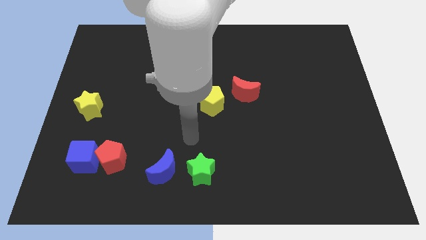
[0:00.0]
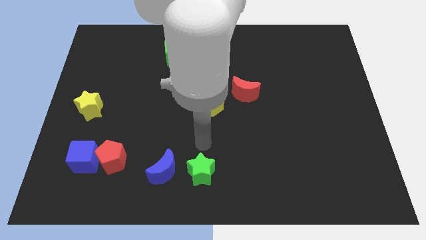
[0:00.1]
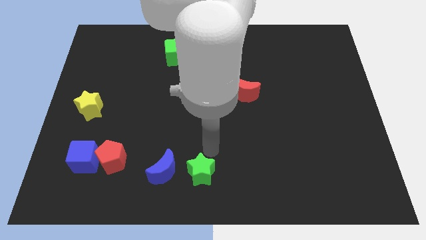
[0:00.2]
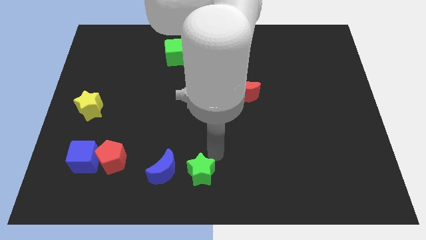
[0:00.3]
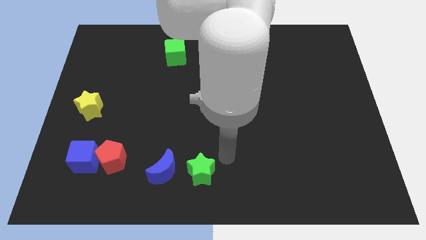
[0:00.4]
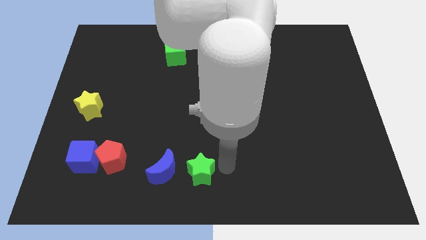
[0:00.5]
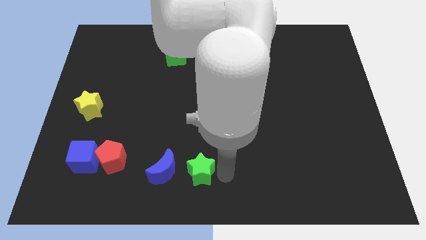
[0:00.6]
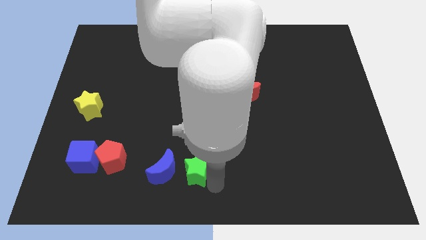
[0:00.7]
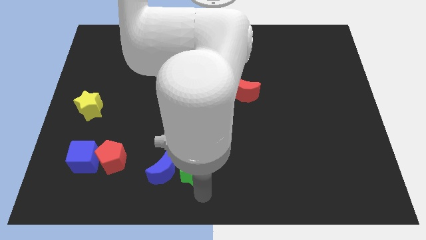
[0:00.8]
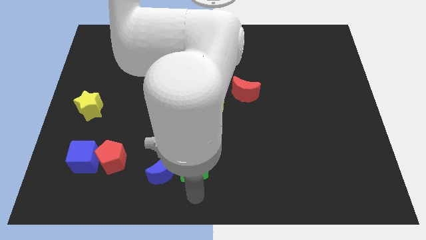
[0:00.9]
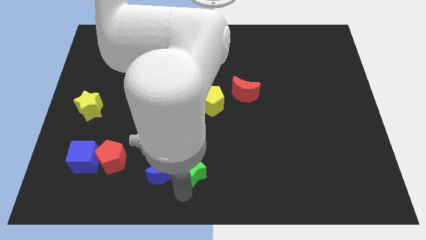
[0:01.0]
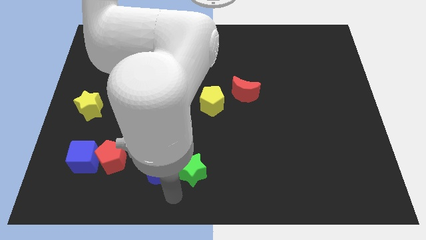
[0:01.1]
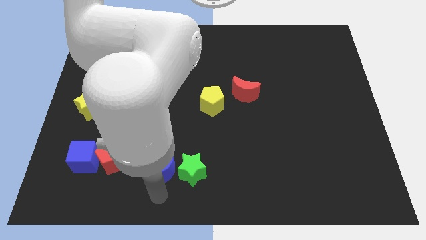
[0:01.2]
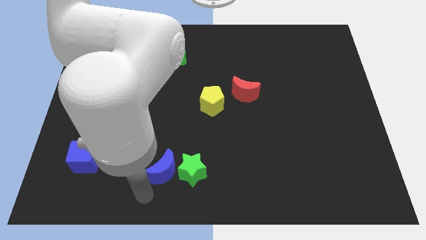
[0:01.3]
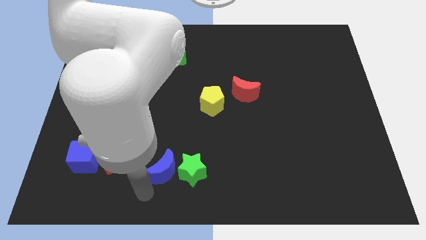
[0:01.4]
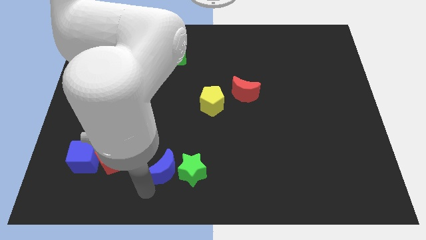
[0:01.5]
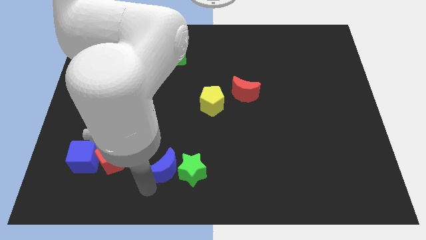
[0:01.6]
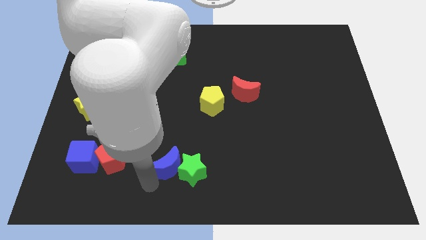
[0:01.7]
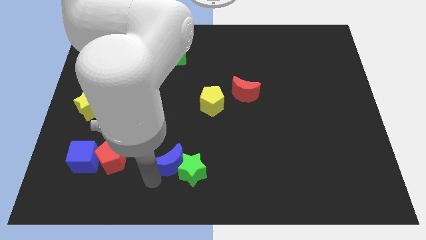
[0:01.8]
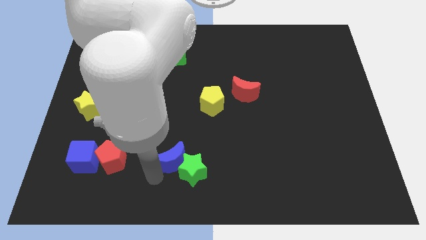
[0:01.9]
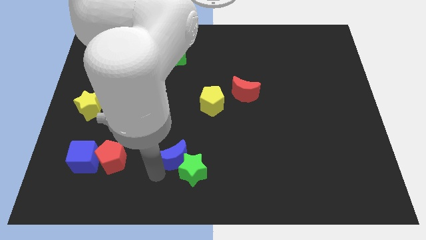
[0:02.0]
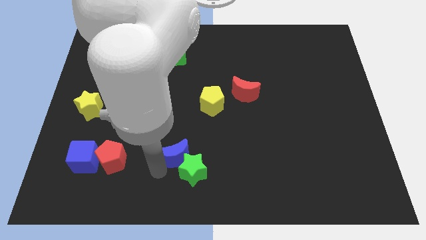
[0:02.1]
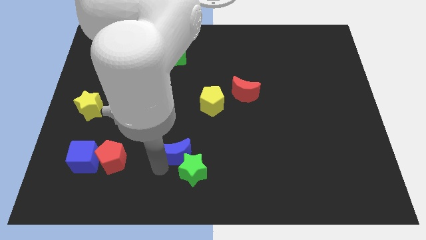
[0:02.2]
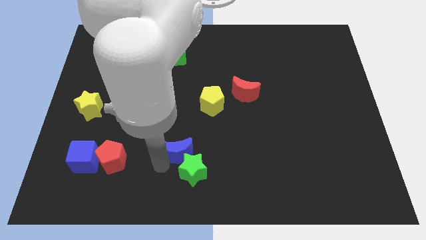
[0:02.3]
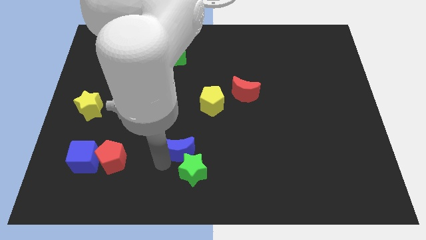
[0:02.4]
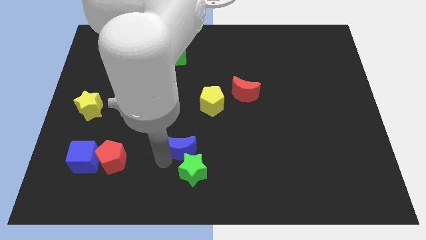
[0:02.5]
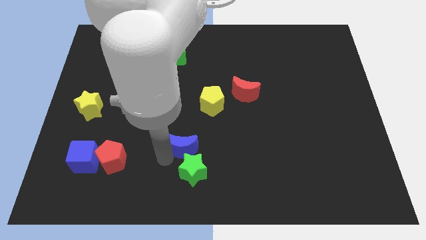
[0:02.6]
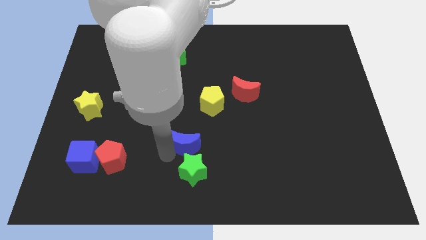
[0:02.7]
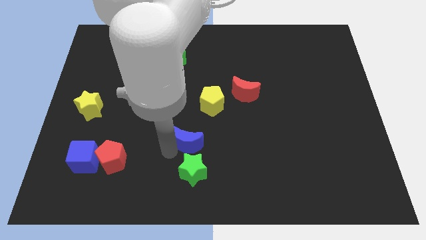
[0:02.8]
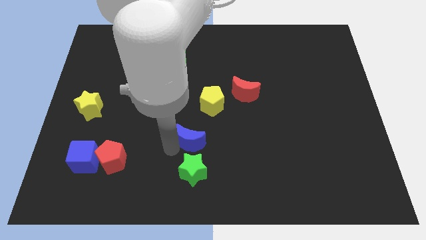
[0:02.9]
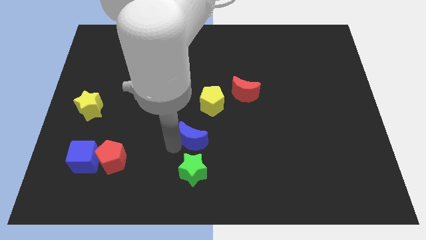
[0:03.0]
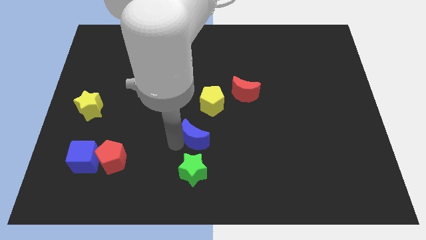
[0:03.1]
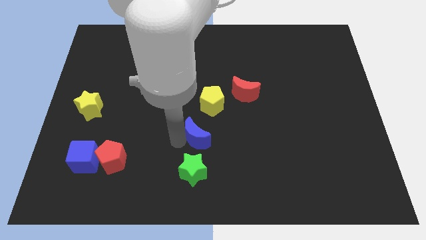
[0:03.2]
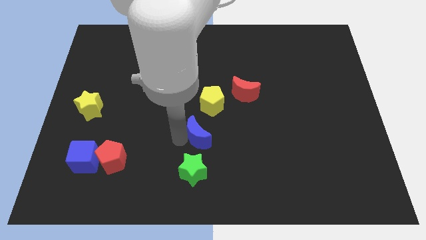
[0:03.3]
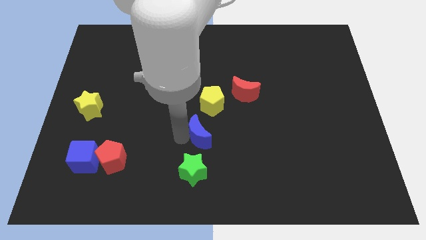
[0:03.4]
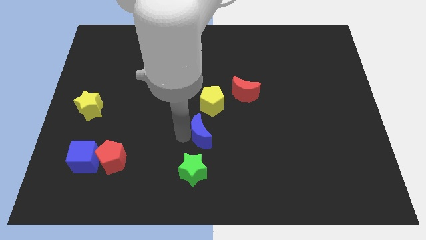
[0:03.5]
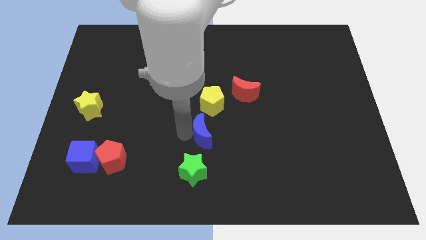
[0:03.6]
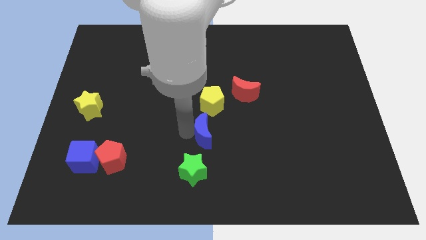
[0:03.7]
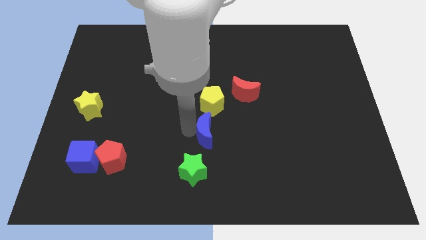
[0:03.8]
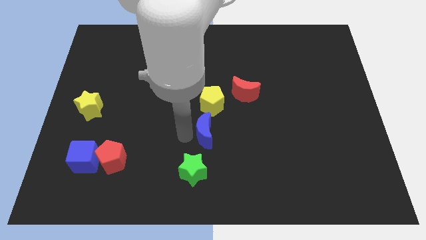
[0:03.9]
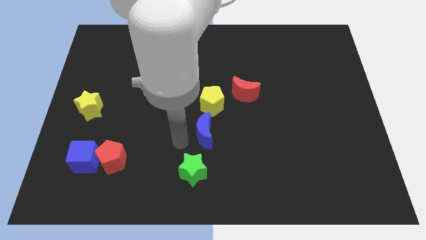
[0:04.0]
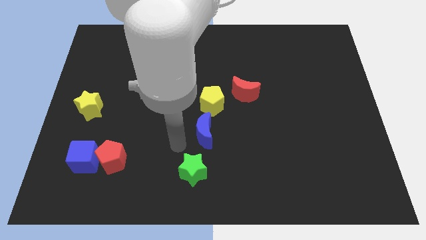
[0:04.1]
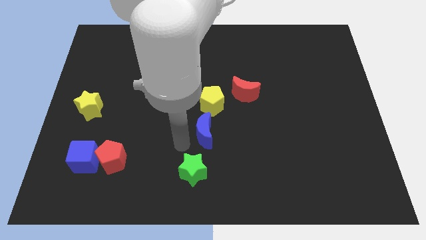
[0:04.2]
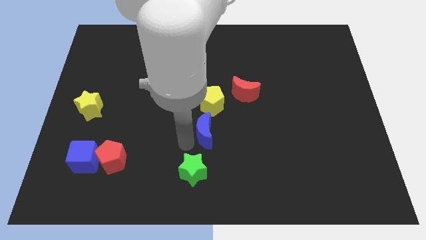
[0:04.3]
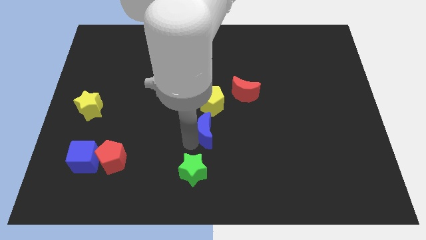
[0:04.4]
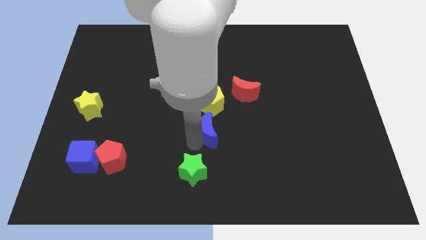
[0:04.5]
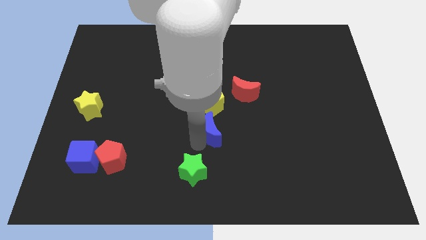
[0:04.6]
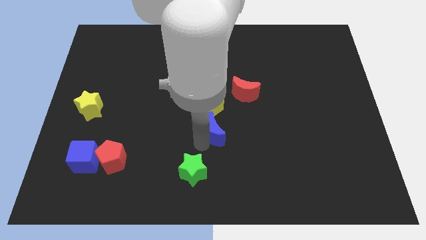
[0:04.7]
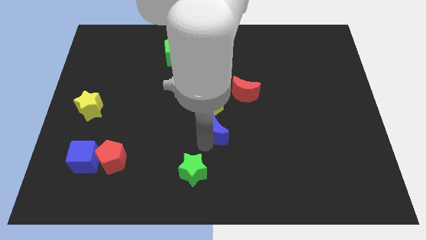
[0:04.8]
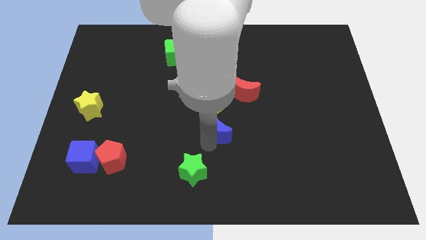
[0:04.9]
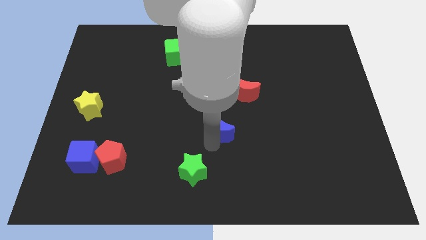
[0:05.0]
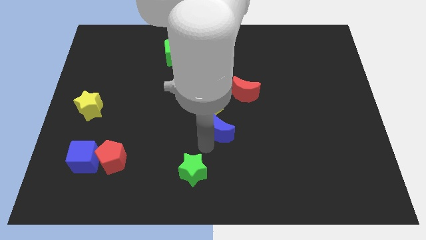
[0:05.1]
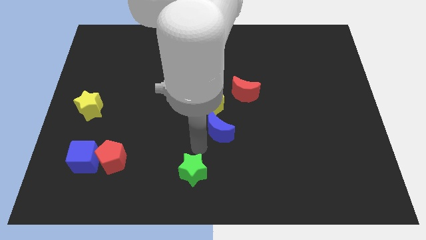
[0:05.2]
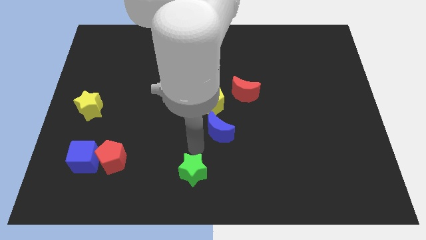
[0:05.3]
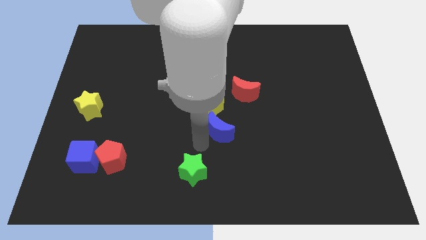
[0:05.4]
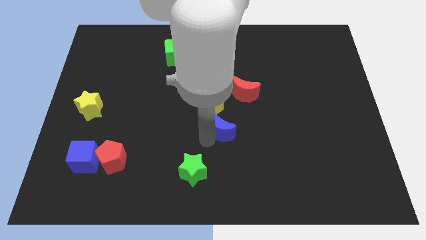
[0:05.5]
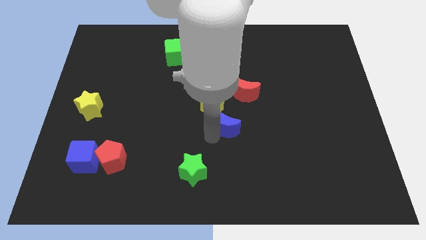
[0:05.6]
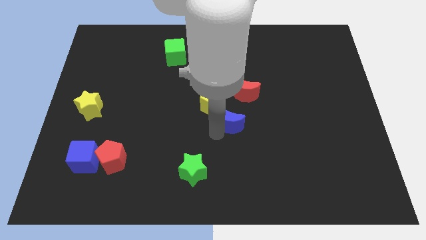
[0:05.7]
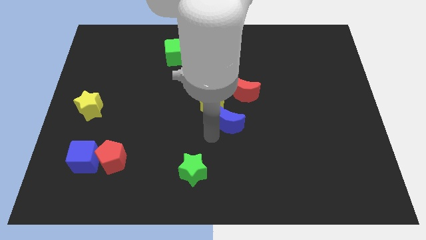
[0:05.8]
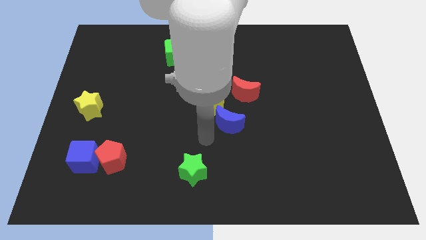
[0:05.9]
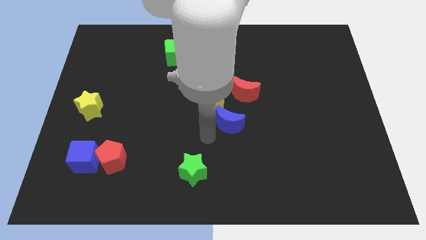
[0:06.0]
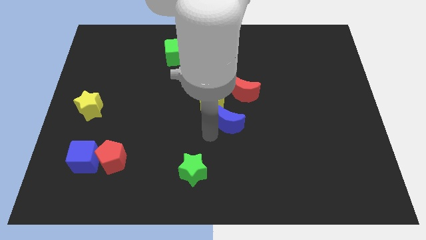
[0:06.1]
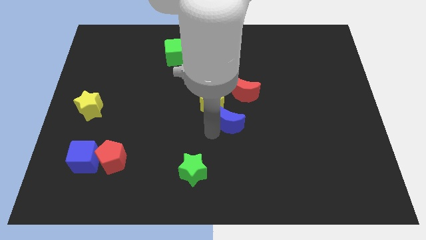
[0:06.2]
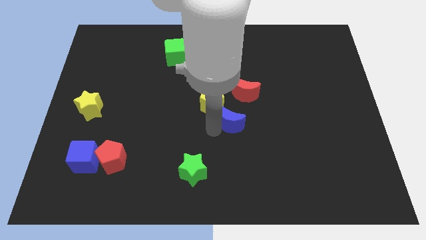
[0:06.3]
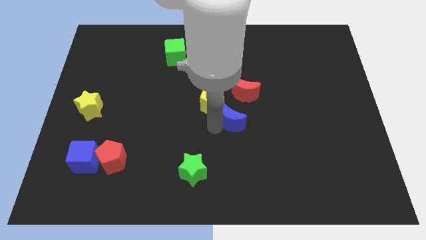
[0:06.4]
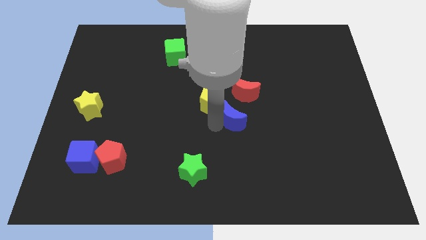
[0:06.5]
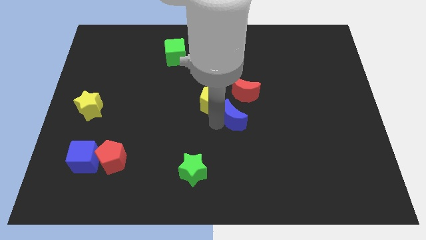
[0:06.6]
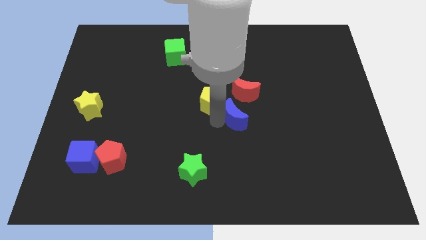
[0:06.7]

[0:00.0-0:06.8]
slide the blue moon upwards and right diagonally

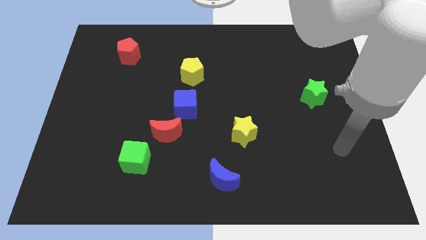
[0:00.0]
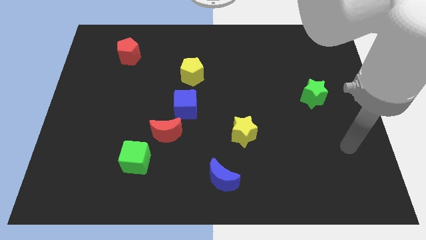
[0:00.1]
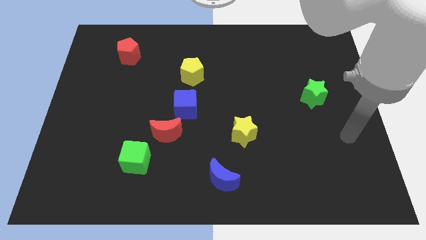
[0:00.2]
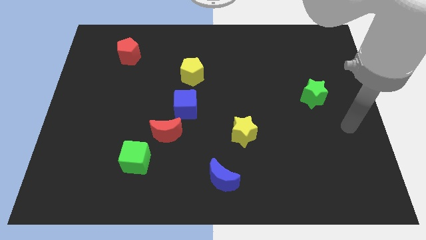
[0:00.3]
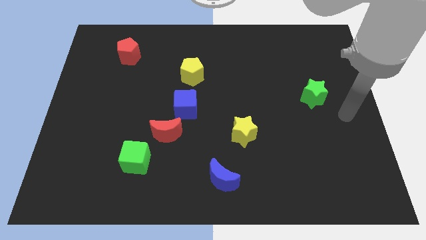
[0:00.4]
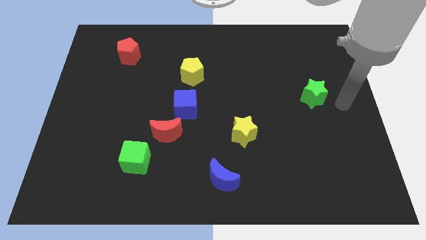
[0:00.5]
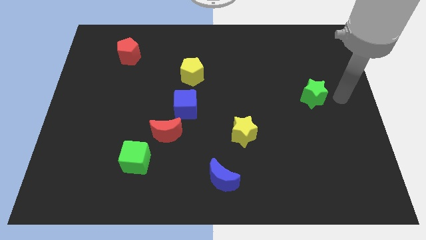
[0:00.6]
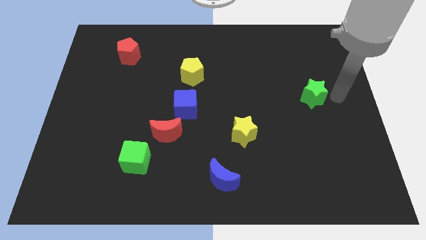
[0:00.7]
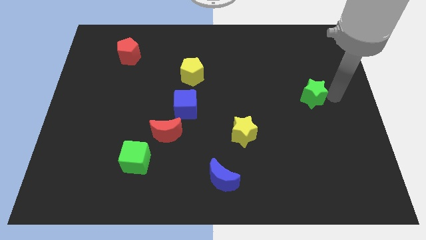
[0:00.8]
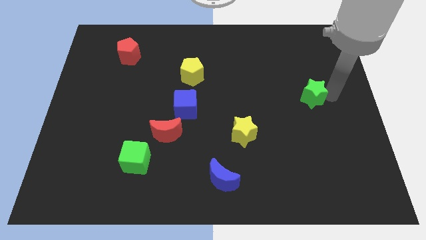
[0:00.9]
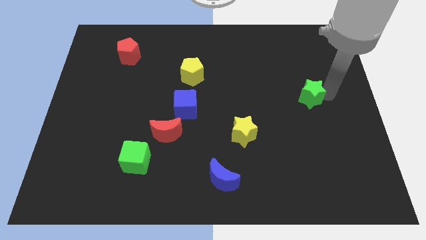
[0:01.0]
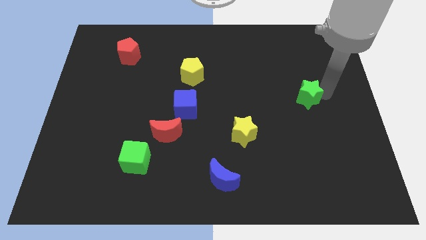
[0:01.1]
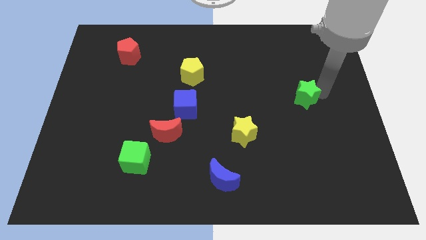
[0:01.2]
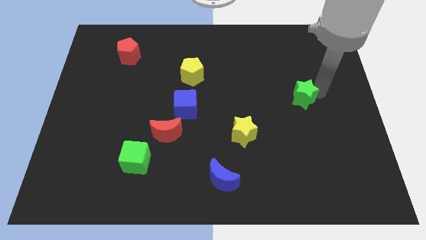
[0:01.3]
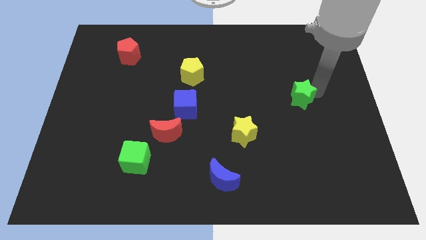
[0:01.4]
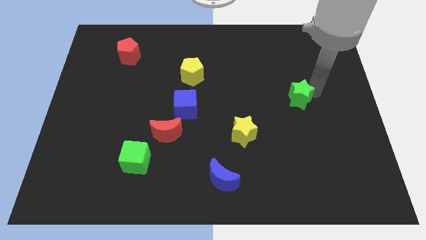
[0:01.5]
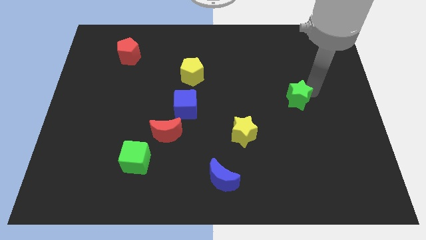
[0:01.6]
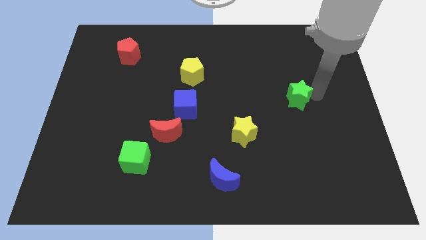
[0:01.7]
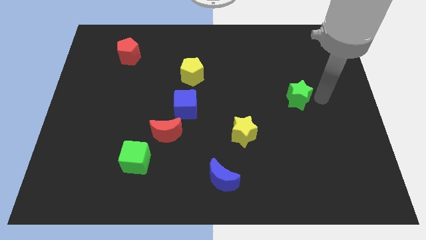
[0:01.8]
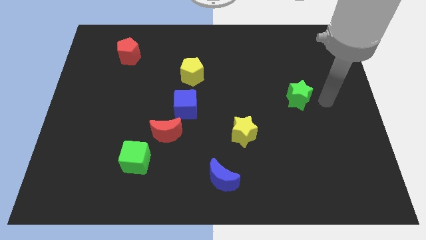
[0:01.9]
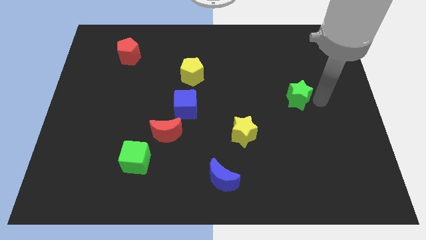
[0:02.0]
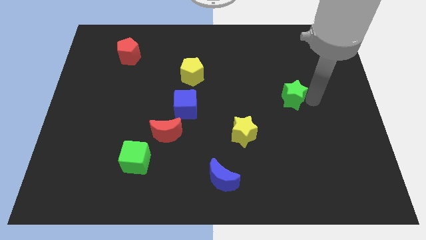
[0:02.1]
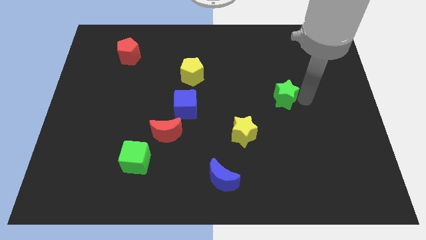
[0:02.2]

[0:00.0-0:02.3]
push the green star to the left a little
